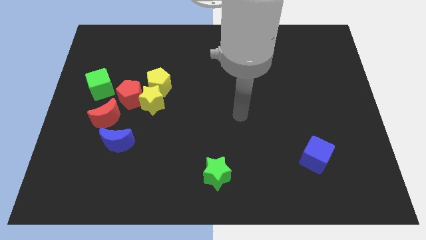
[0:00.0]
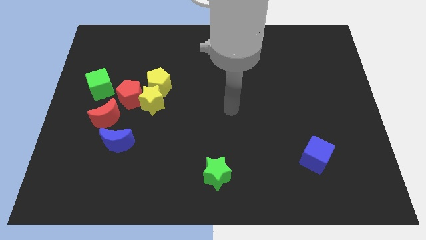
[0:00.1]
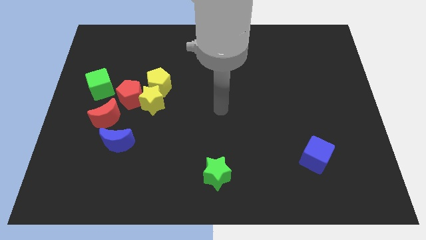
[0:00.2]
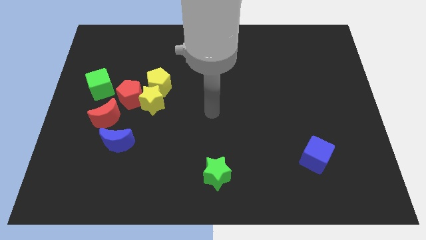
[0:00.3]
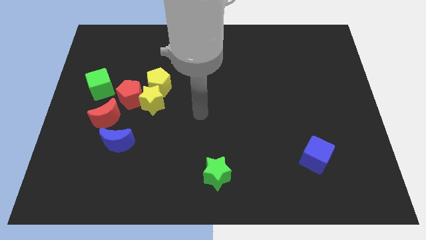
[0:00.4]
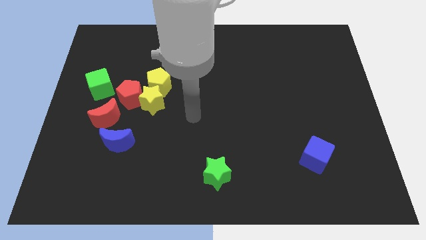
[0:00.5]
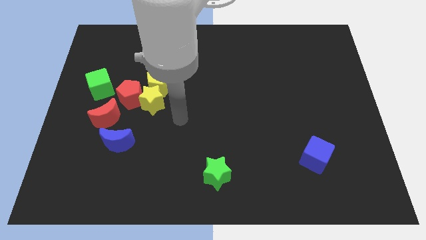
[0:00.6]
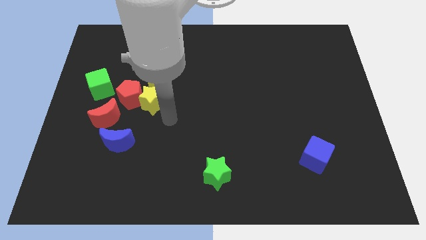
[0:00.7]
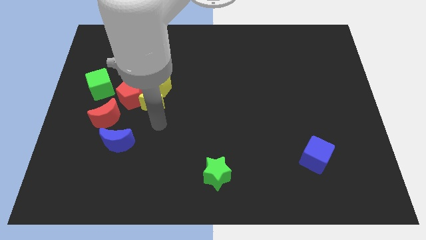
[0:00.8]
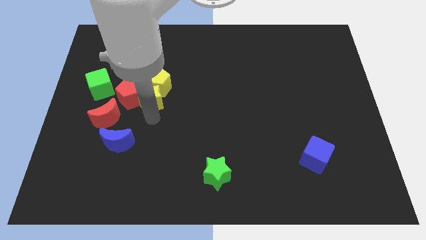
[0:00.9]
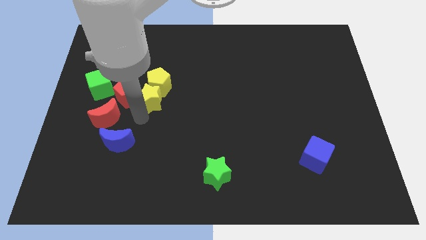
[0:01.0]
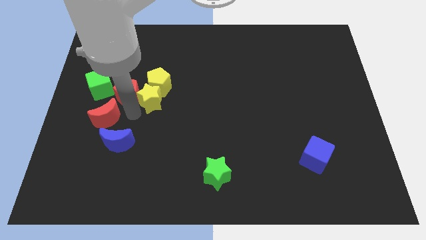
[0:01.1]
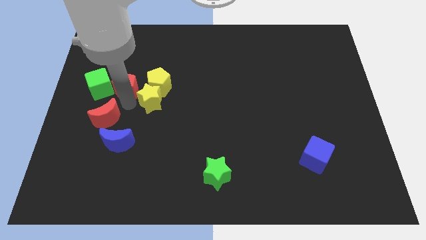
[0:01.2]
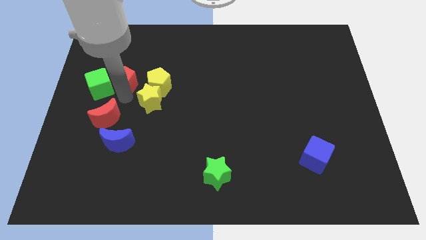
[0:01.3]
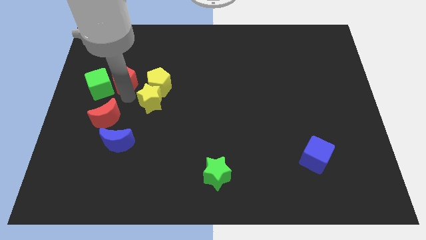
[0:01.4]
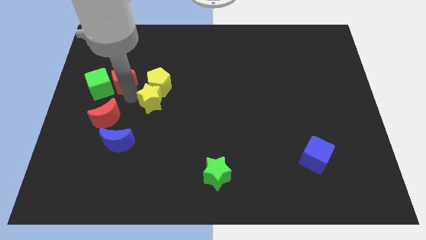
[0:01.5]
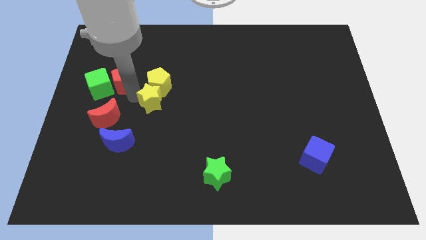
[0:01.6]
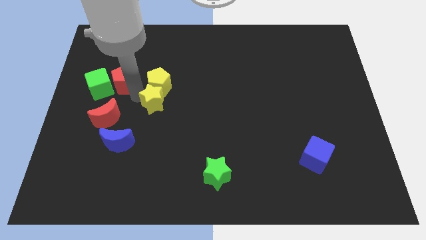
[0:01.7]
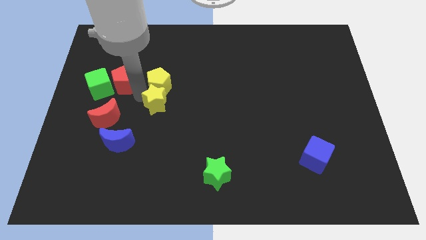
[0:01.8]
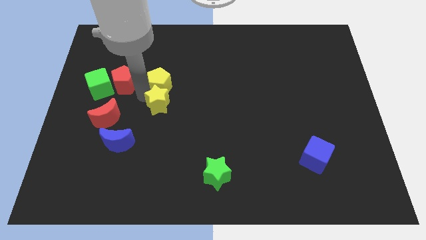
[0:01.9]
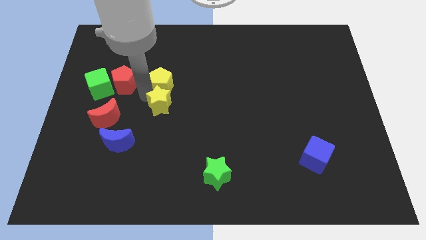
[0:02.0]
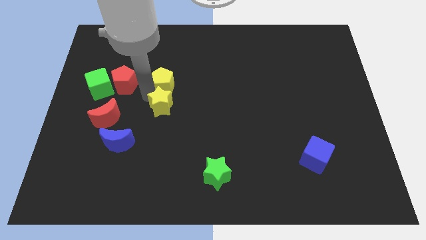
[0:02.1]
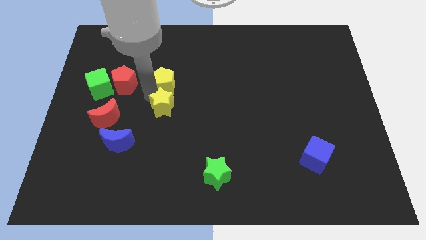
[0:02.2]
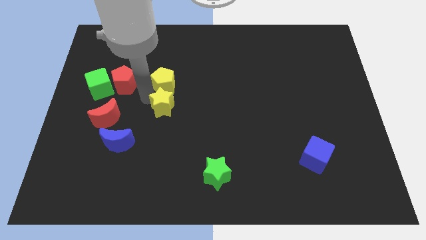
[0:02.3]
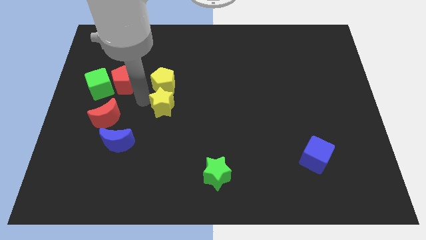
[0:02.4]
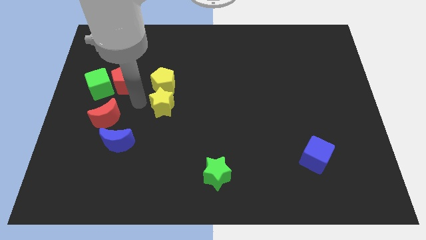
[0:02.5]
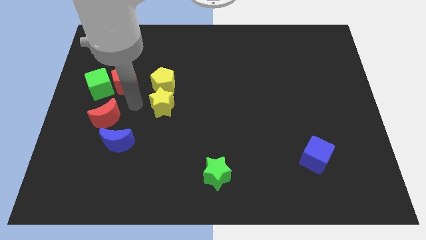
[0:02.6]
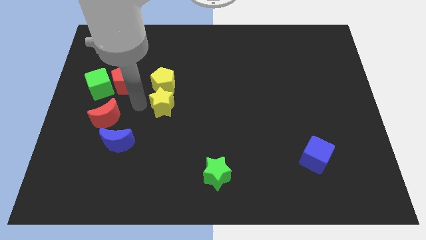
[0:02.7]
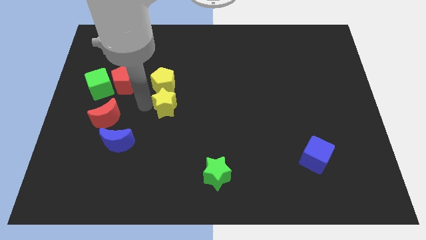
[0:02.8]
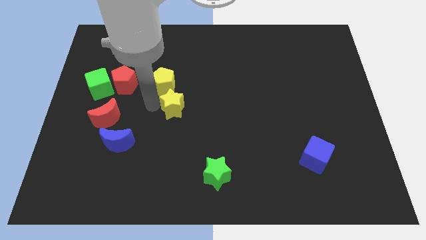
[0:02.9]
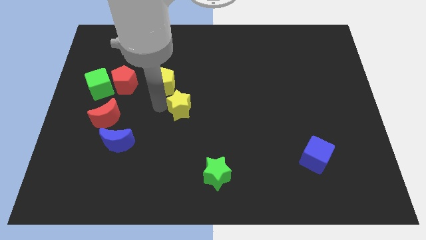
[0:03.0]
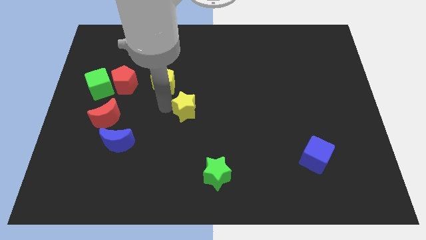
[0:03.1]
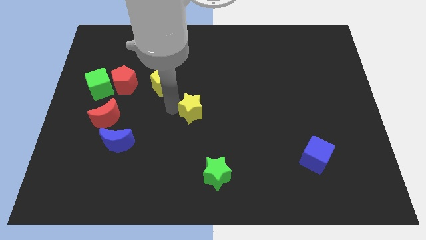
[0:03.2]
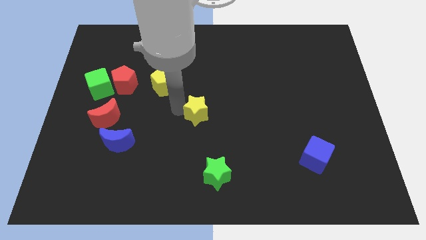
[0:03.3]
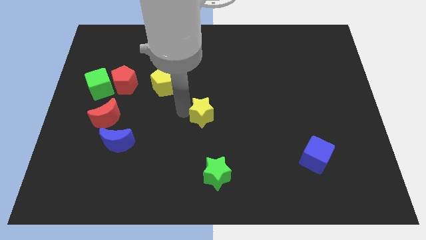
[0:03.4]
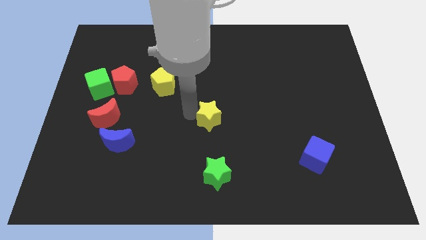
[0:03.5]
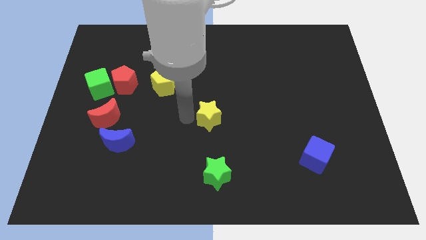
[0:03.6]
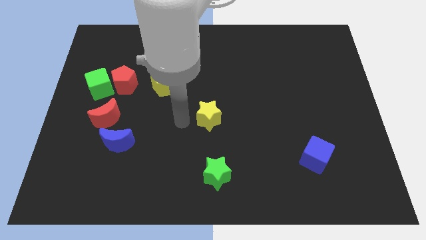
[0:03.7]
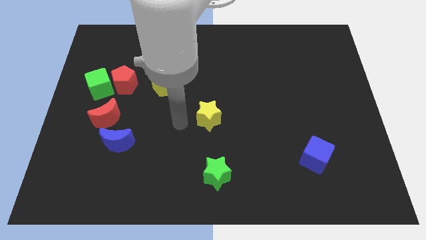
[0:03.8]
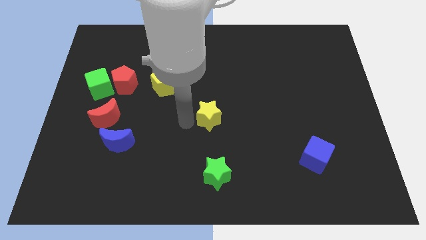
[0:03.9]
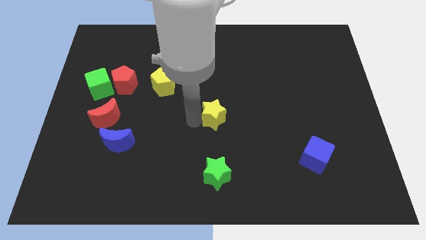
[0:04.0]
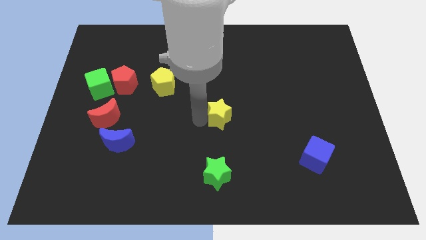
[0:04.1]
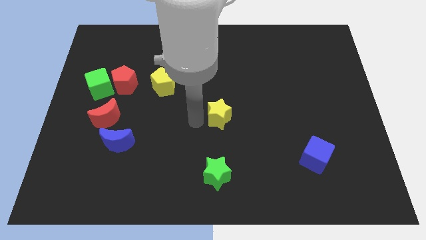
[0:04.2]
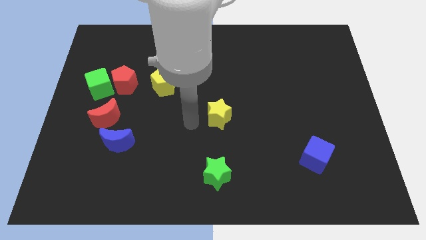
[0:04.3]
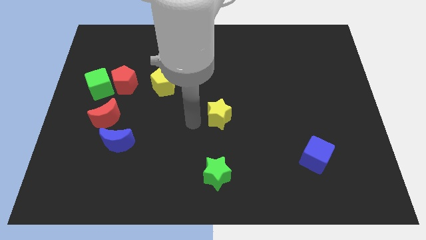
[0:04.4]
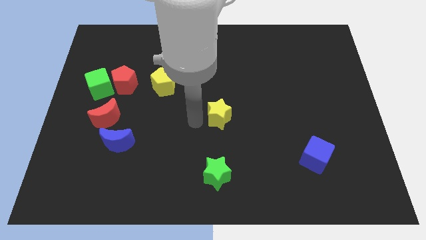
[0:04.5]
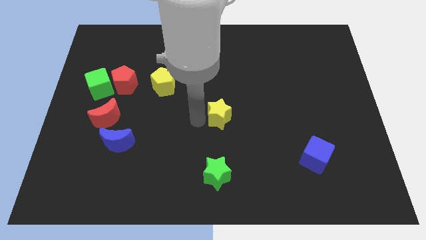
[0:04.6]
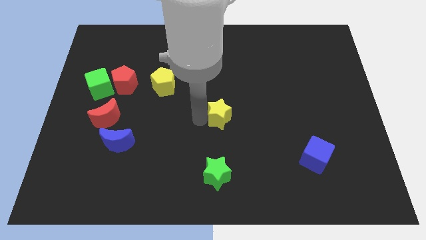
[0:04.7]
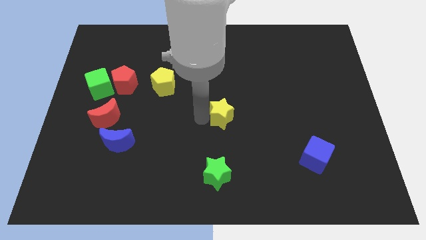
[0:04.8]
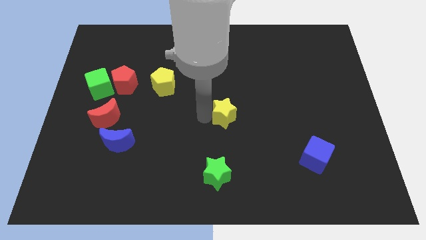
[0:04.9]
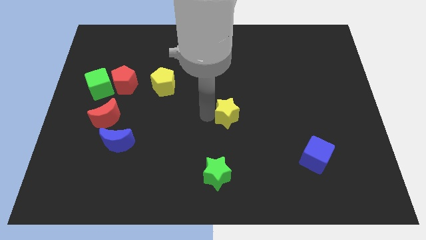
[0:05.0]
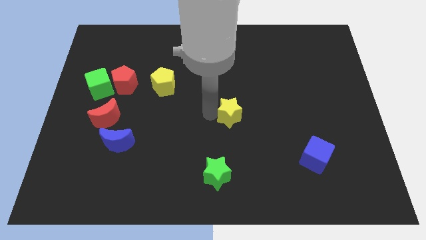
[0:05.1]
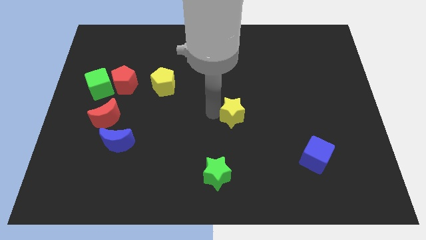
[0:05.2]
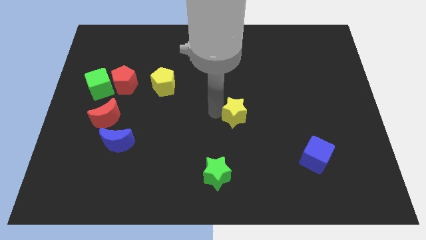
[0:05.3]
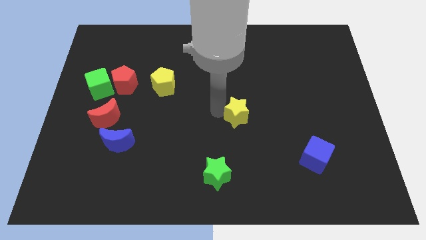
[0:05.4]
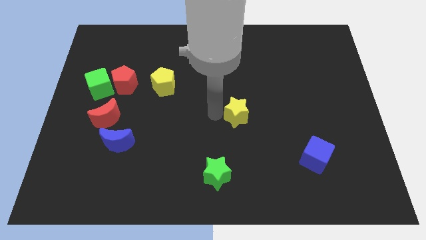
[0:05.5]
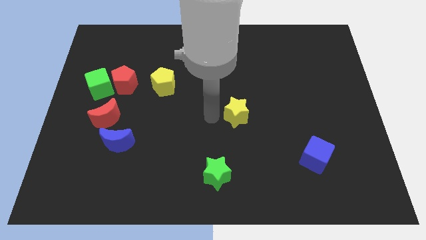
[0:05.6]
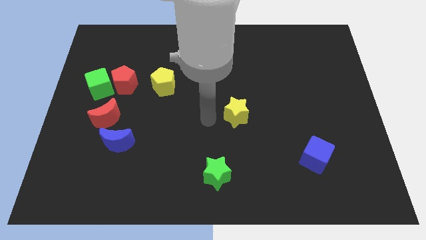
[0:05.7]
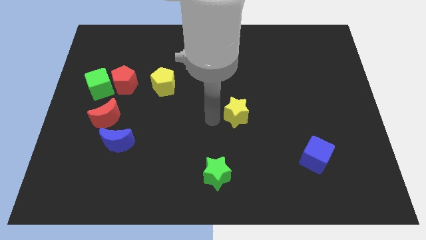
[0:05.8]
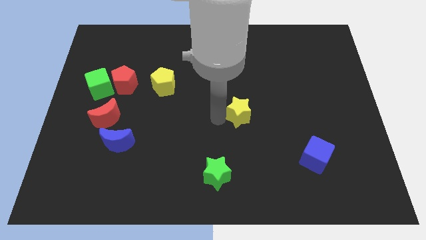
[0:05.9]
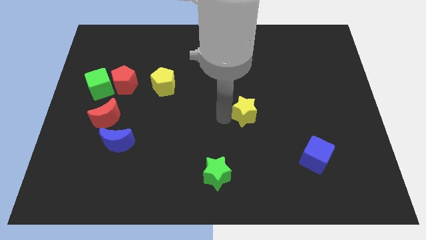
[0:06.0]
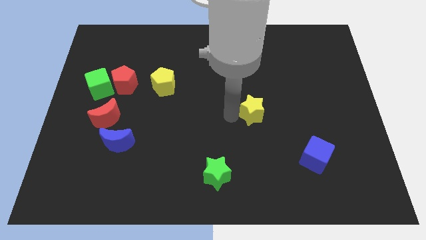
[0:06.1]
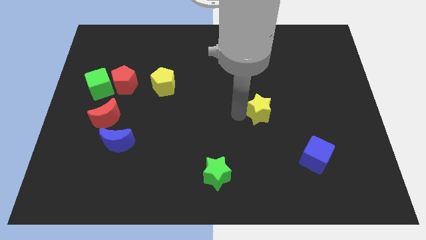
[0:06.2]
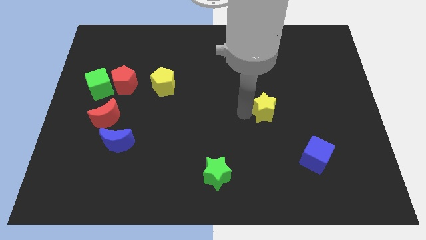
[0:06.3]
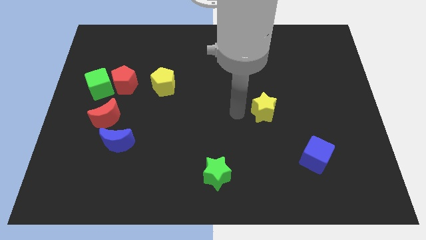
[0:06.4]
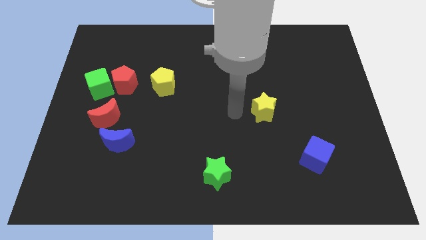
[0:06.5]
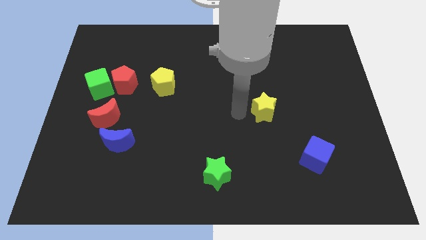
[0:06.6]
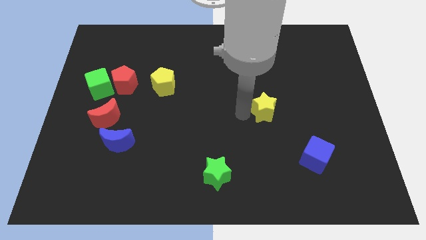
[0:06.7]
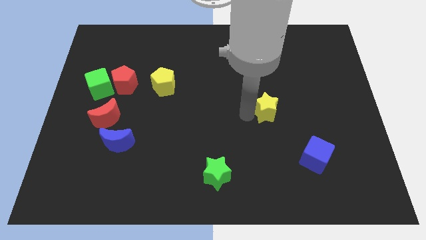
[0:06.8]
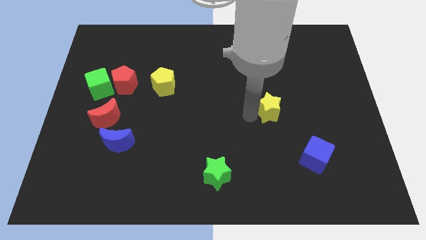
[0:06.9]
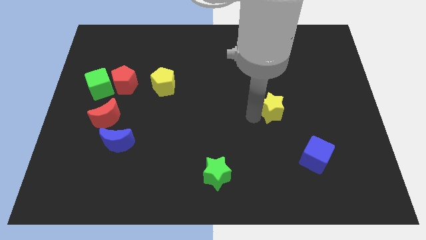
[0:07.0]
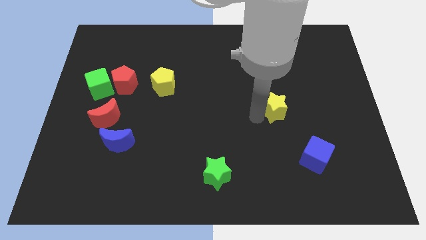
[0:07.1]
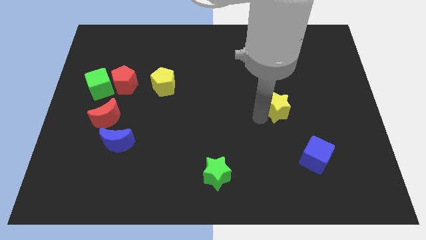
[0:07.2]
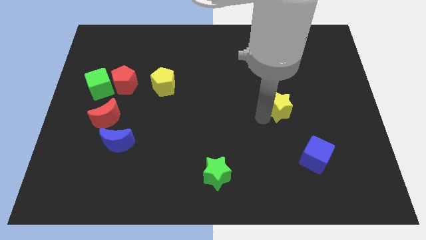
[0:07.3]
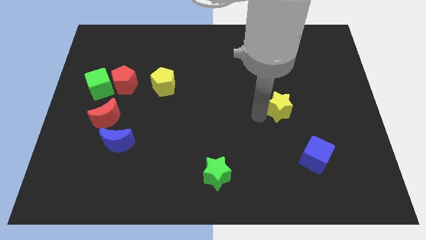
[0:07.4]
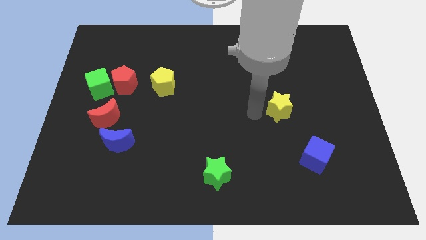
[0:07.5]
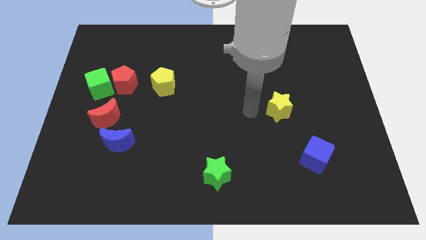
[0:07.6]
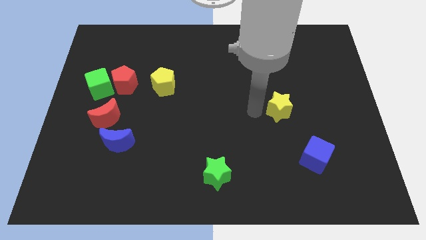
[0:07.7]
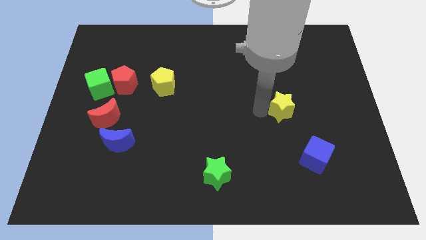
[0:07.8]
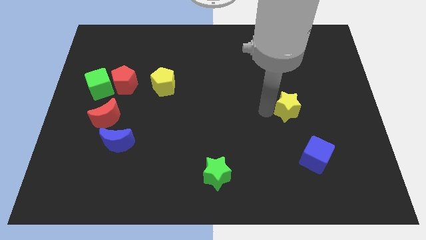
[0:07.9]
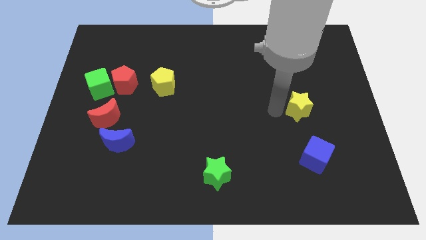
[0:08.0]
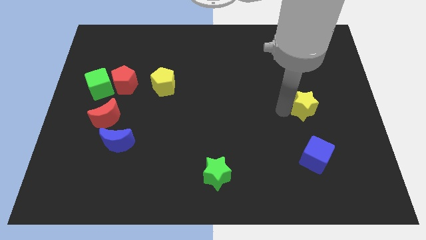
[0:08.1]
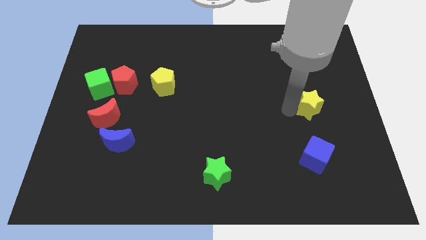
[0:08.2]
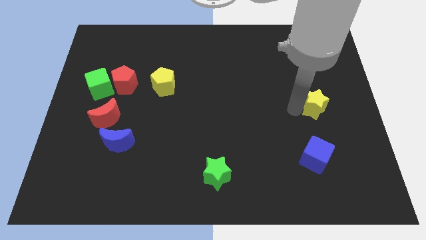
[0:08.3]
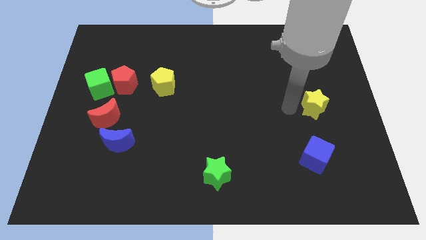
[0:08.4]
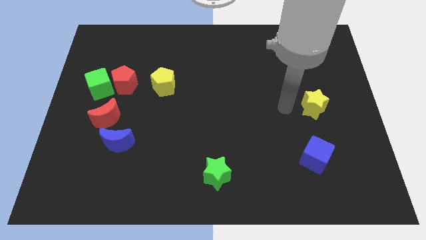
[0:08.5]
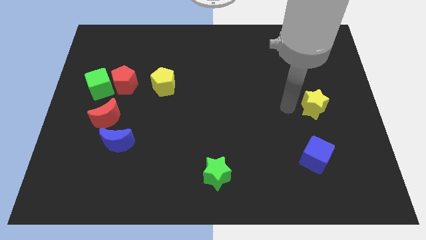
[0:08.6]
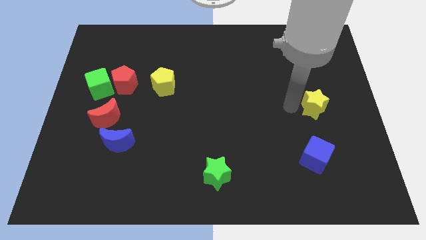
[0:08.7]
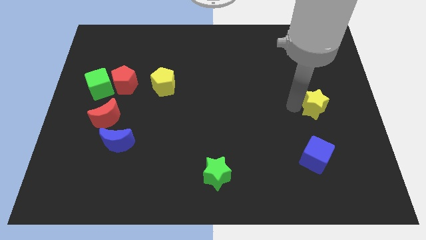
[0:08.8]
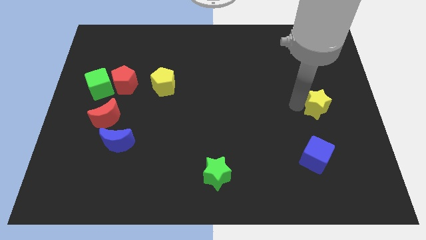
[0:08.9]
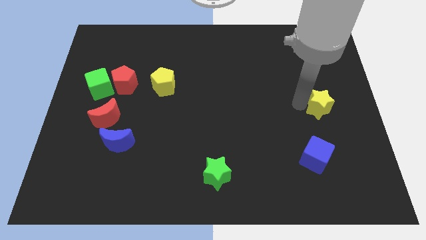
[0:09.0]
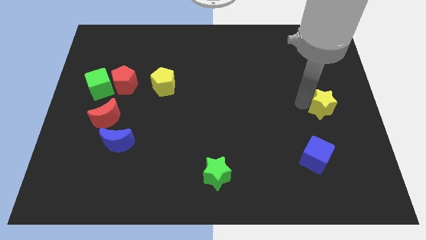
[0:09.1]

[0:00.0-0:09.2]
push the yellow star to the center right
